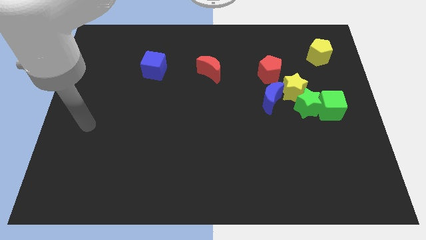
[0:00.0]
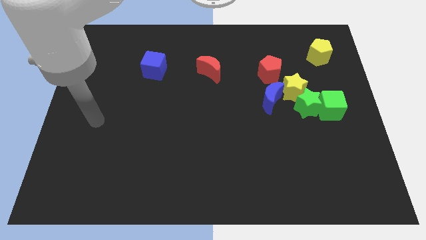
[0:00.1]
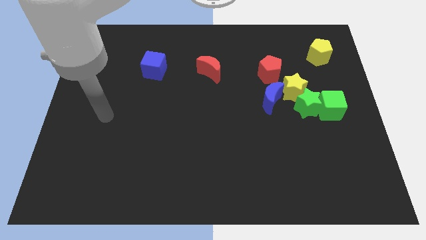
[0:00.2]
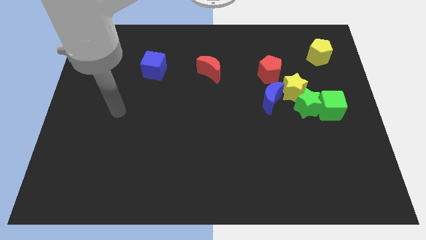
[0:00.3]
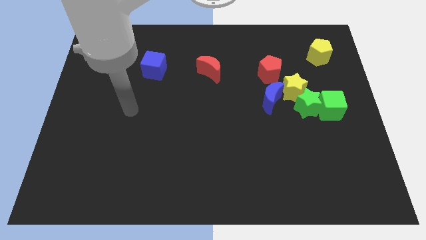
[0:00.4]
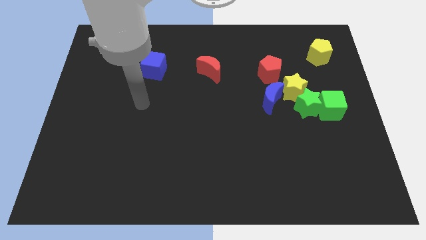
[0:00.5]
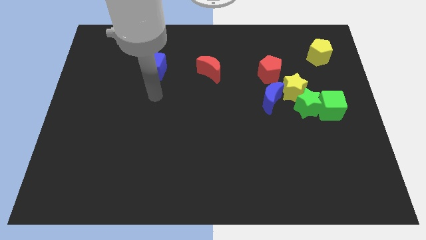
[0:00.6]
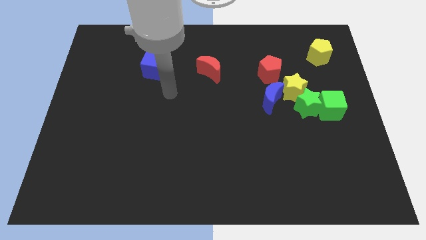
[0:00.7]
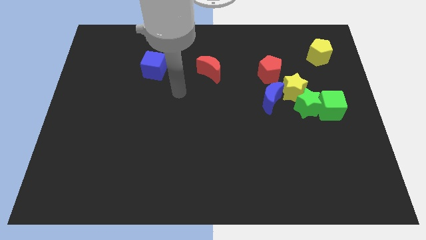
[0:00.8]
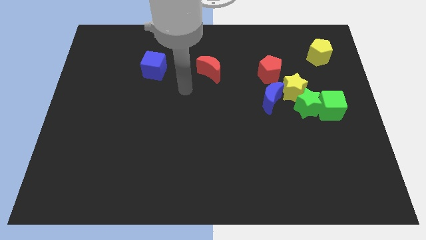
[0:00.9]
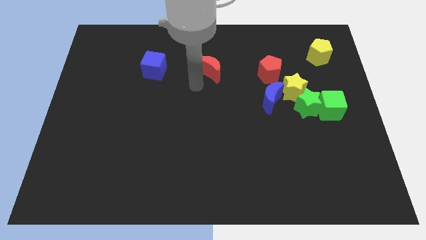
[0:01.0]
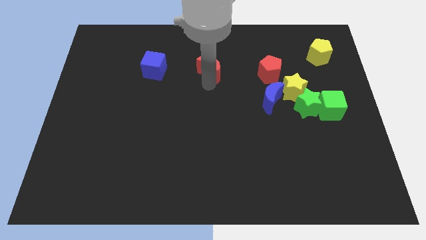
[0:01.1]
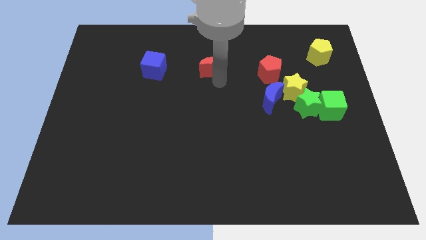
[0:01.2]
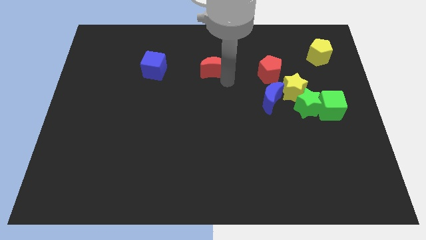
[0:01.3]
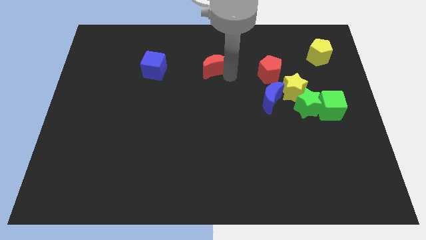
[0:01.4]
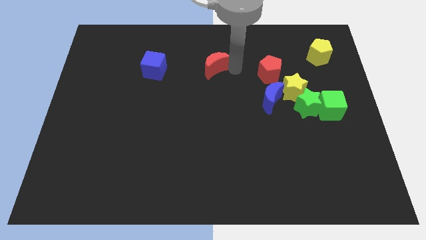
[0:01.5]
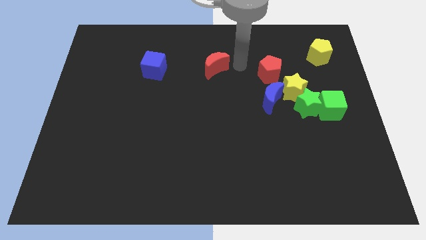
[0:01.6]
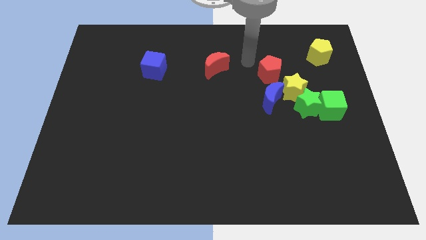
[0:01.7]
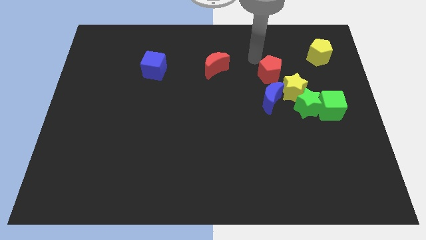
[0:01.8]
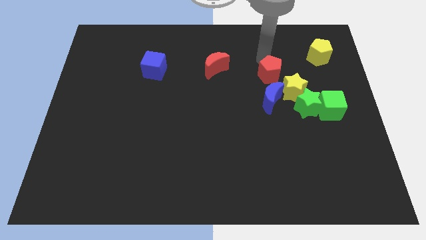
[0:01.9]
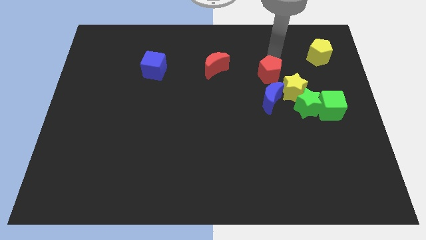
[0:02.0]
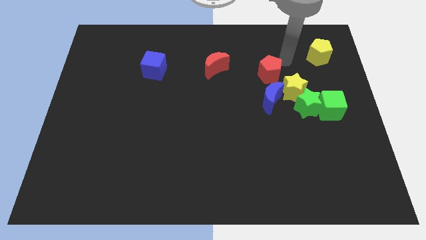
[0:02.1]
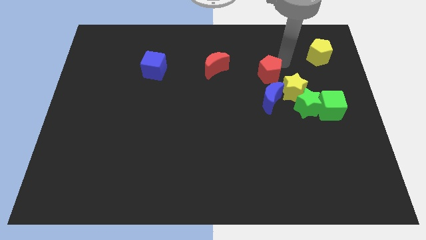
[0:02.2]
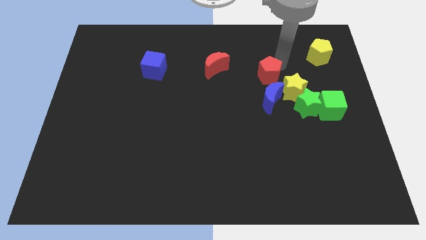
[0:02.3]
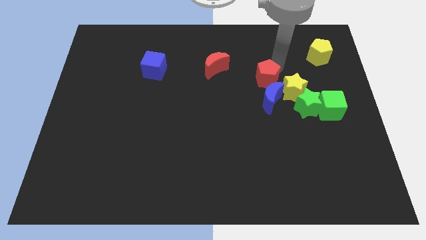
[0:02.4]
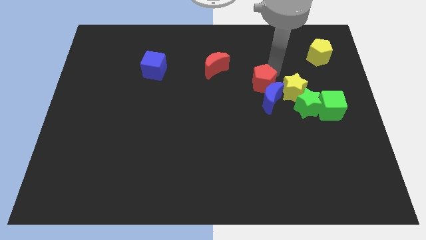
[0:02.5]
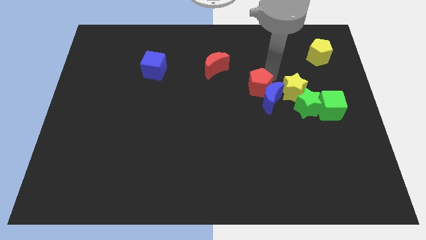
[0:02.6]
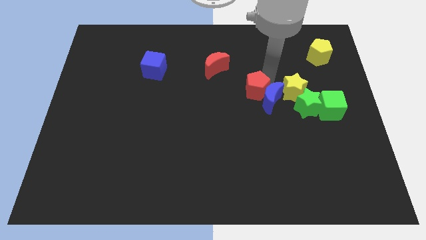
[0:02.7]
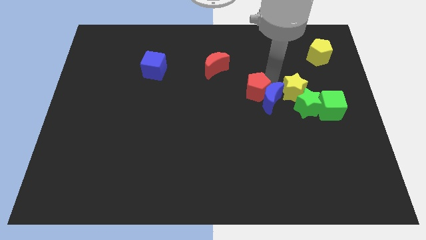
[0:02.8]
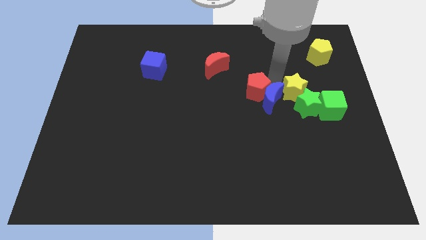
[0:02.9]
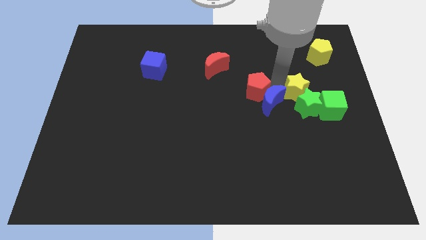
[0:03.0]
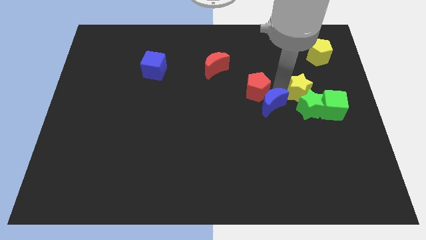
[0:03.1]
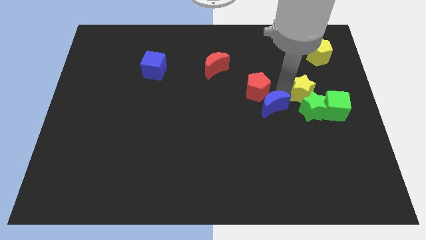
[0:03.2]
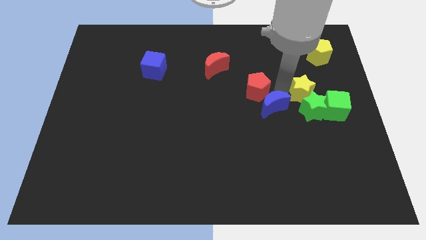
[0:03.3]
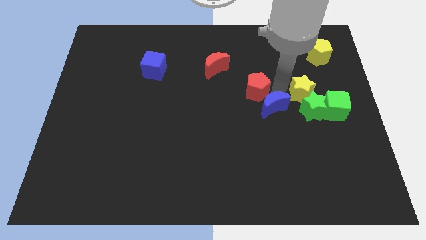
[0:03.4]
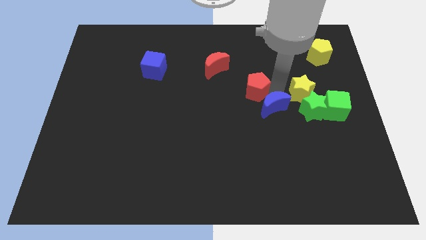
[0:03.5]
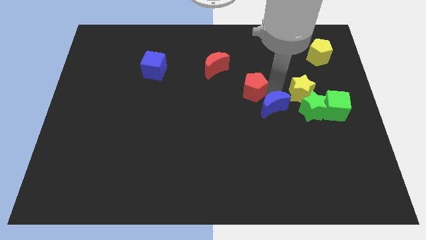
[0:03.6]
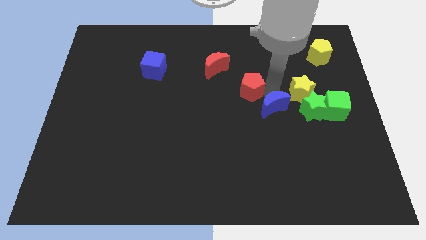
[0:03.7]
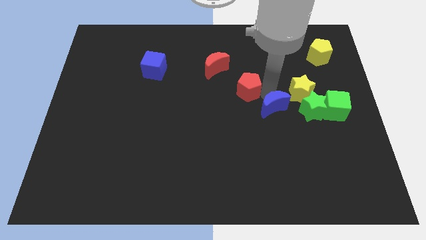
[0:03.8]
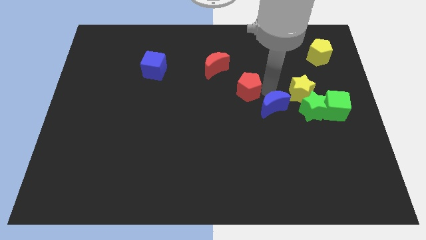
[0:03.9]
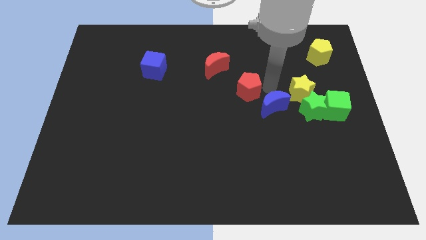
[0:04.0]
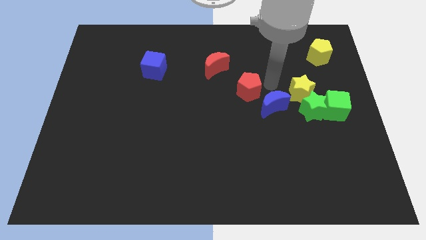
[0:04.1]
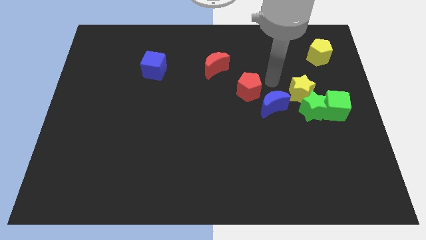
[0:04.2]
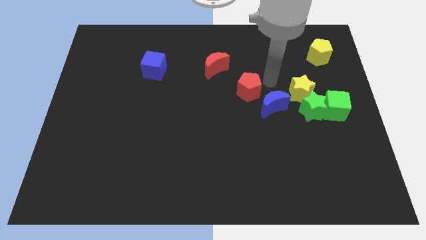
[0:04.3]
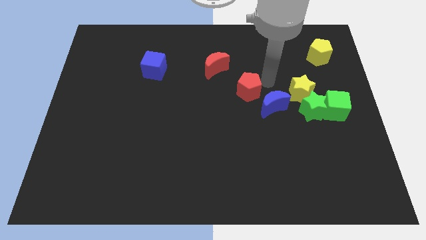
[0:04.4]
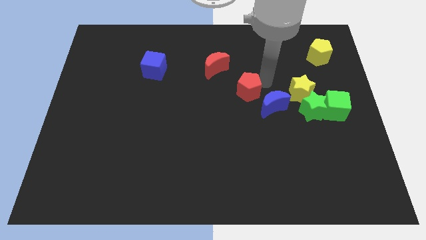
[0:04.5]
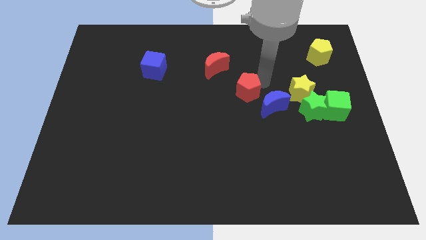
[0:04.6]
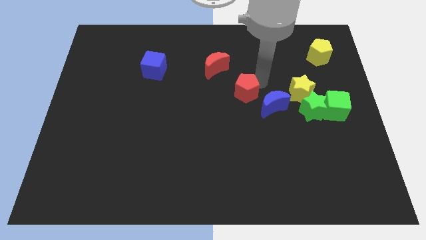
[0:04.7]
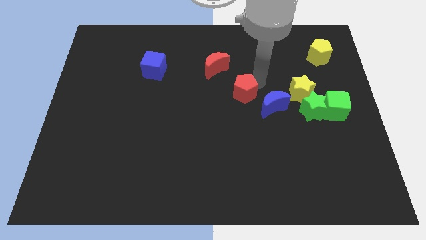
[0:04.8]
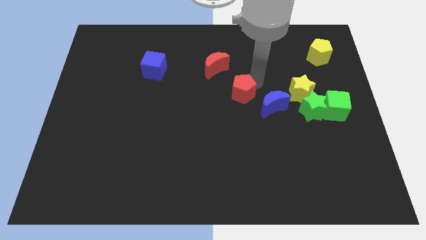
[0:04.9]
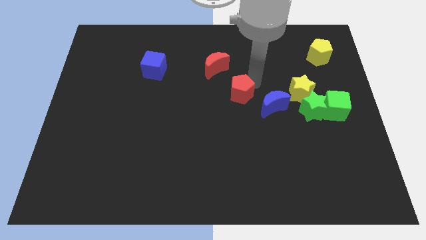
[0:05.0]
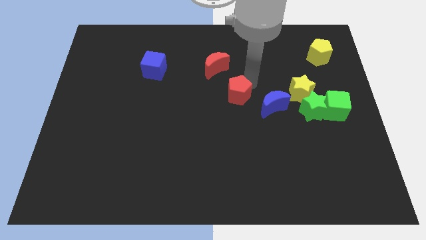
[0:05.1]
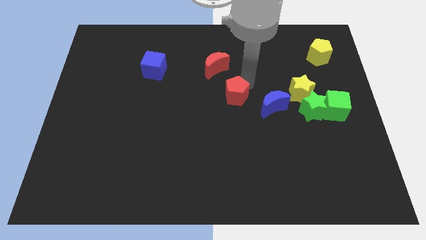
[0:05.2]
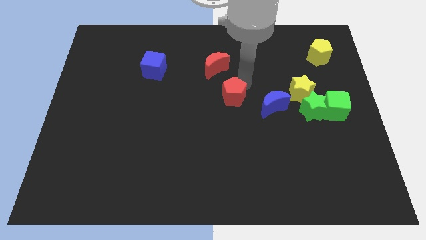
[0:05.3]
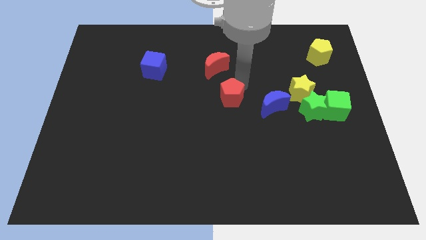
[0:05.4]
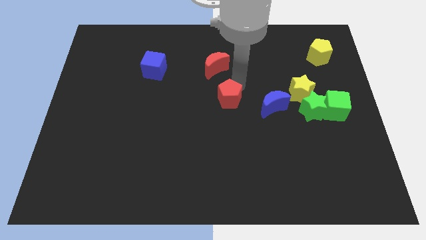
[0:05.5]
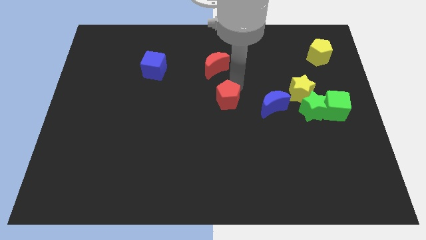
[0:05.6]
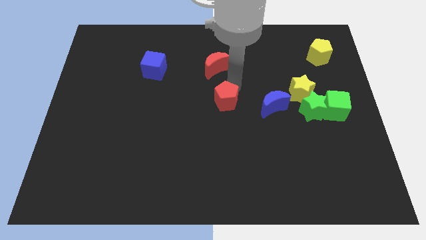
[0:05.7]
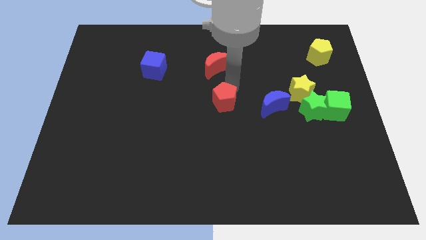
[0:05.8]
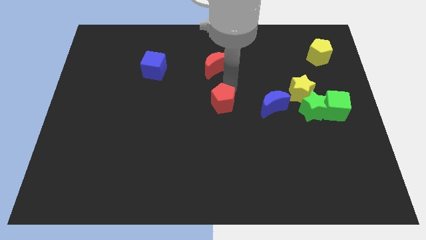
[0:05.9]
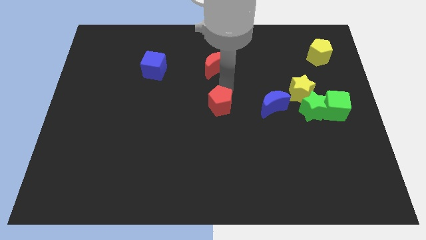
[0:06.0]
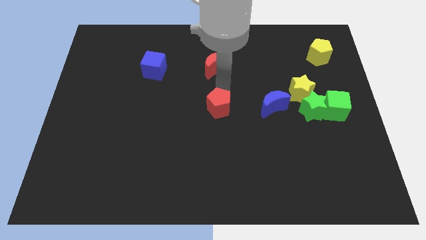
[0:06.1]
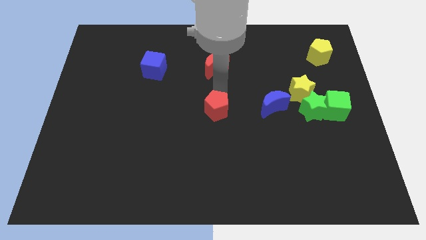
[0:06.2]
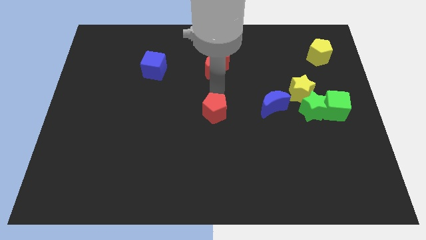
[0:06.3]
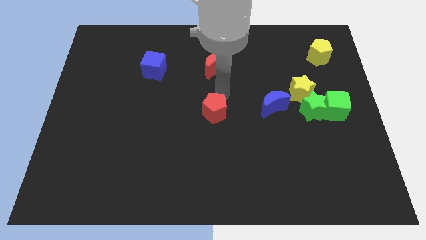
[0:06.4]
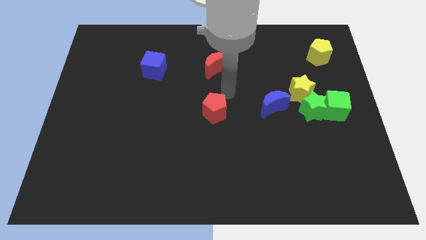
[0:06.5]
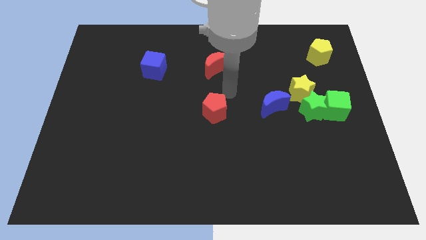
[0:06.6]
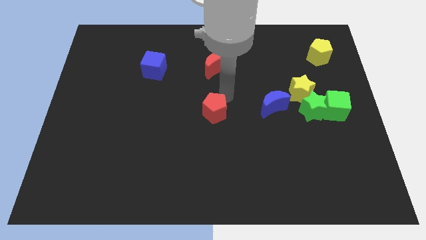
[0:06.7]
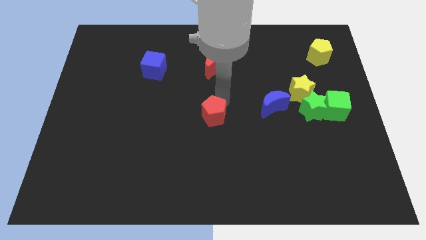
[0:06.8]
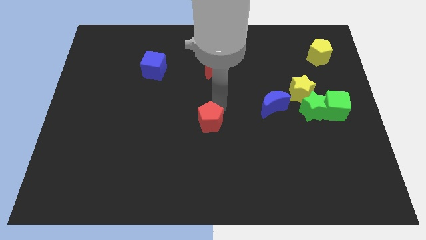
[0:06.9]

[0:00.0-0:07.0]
slide the red pentagon diagonally down and to the left

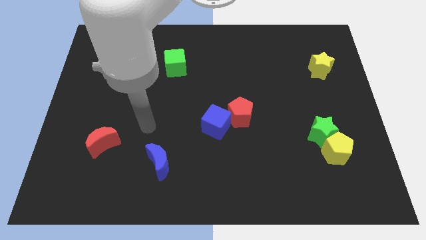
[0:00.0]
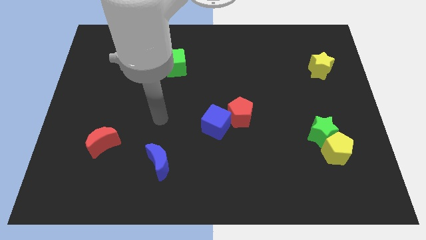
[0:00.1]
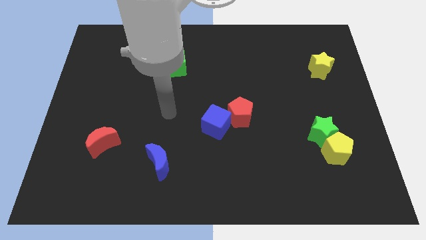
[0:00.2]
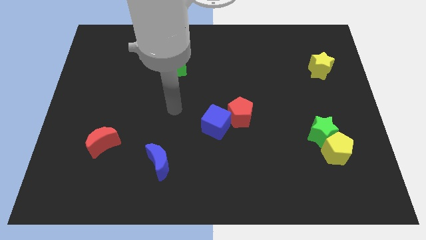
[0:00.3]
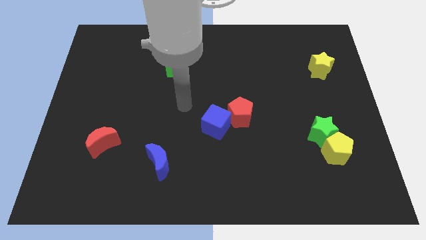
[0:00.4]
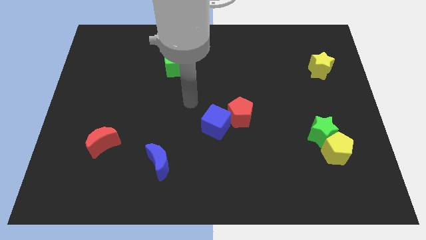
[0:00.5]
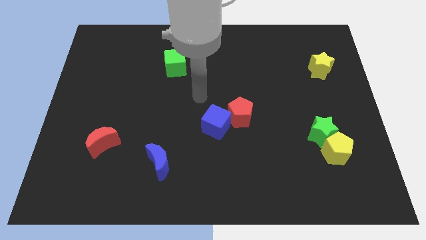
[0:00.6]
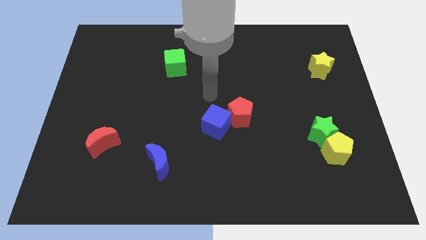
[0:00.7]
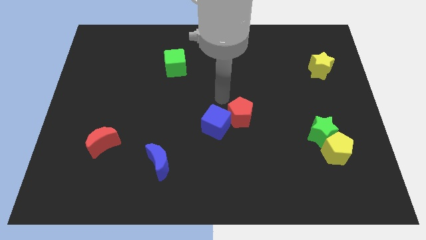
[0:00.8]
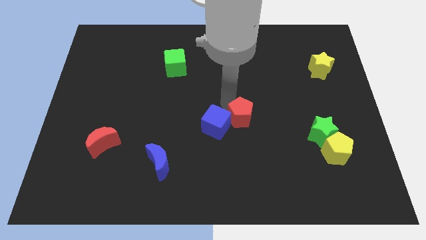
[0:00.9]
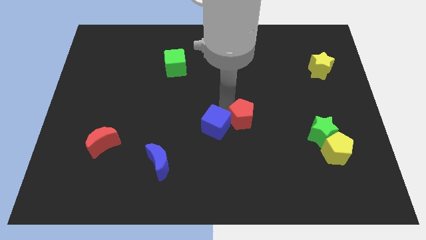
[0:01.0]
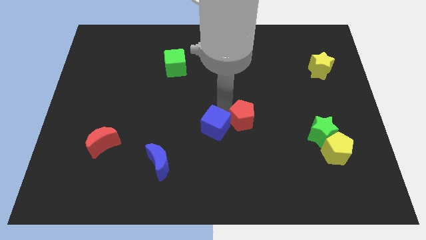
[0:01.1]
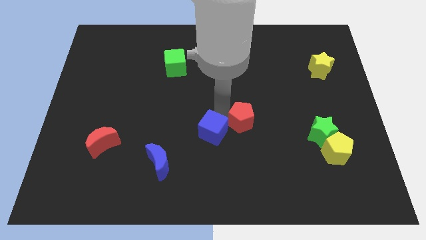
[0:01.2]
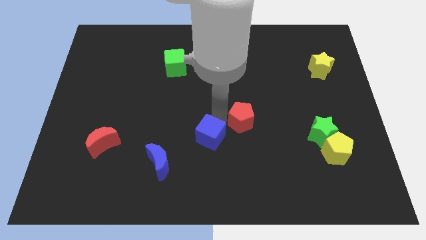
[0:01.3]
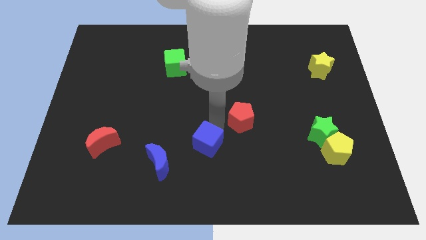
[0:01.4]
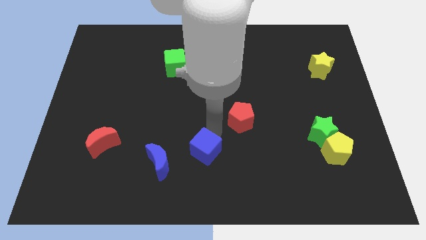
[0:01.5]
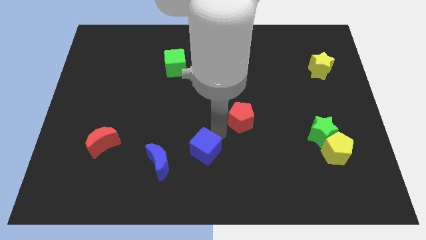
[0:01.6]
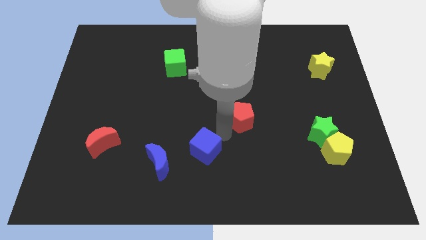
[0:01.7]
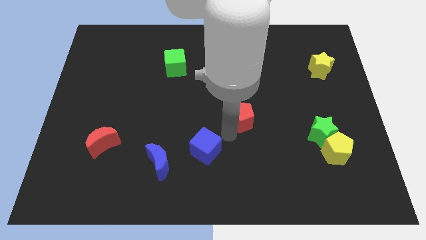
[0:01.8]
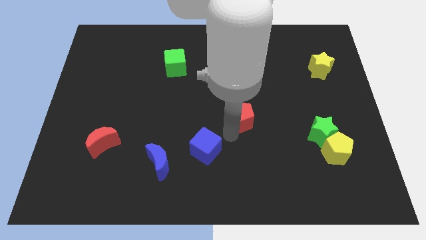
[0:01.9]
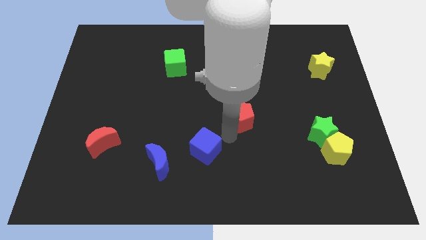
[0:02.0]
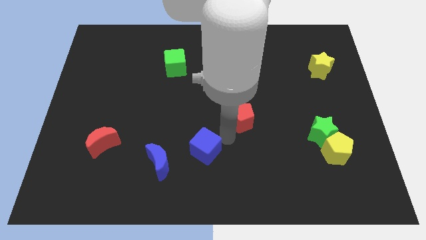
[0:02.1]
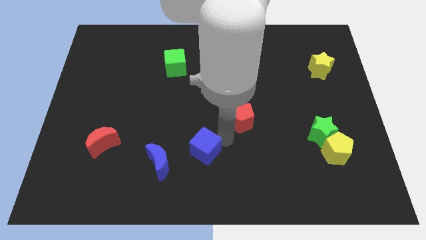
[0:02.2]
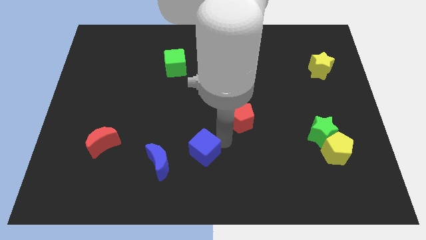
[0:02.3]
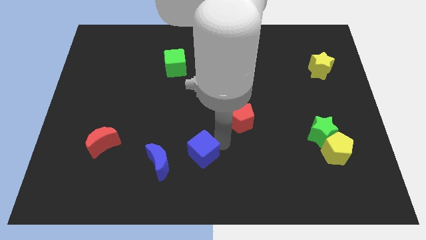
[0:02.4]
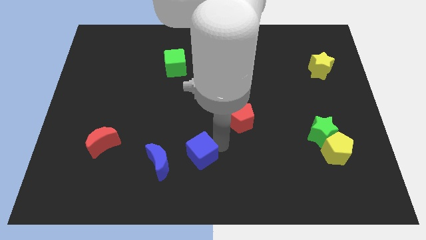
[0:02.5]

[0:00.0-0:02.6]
move the blue cube down and left a little
